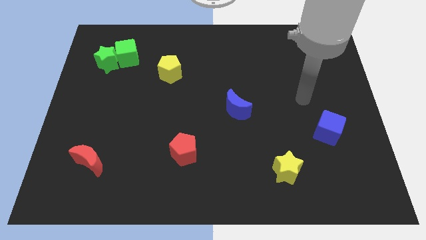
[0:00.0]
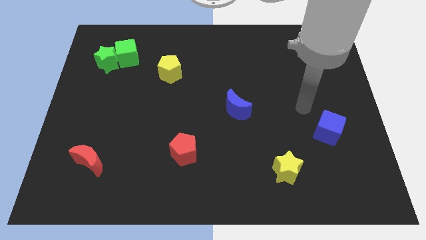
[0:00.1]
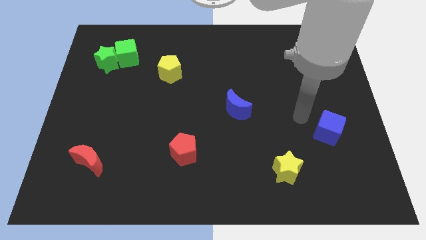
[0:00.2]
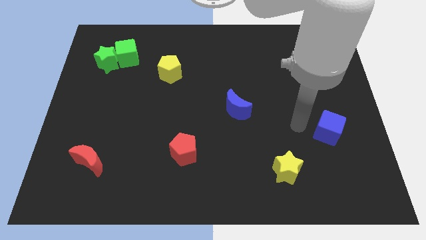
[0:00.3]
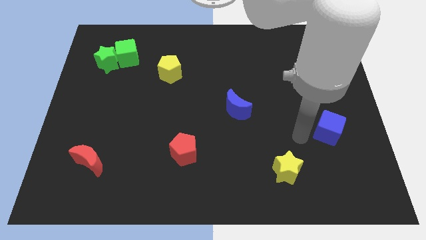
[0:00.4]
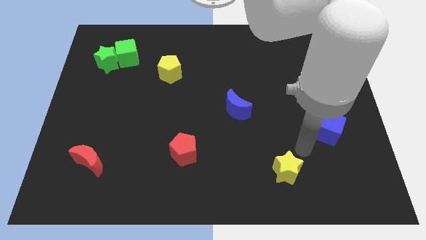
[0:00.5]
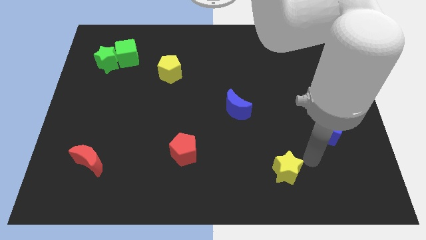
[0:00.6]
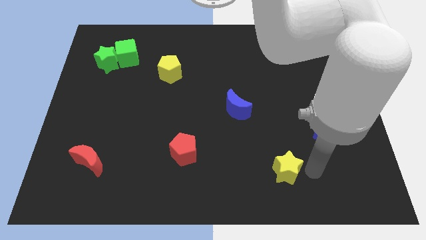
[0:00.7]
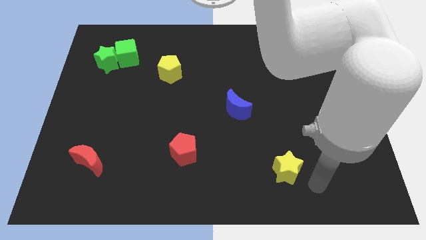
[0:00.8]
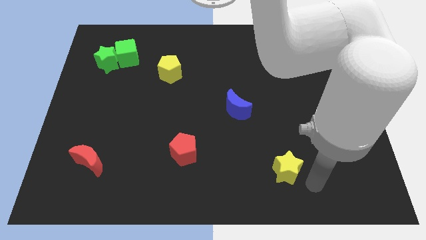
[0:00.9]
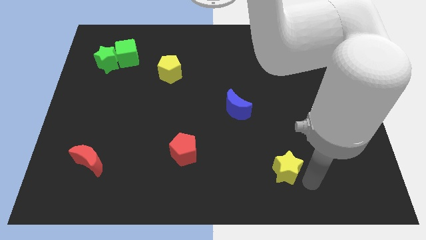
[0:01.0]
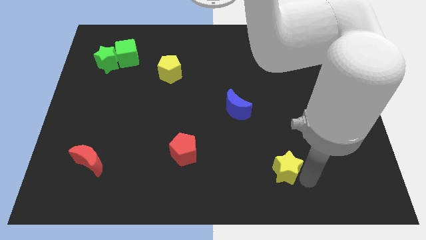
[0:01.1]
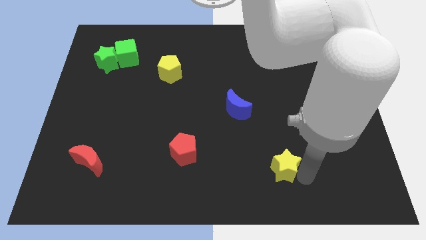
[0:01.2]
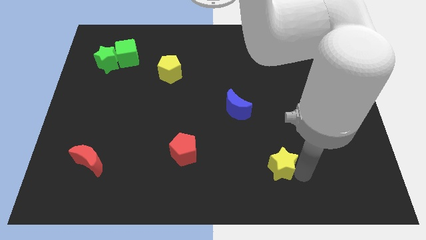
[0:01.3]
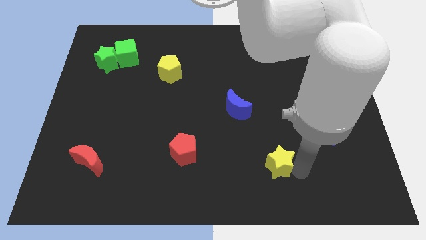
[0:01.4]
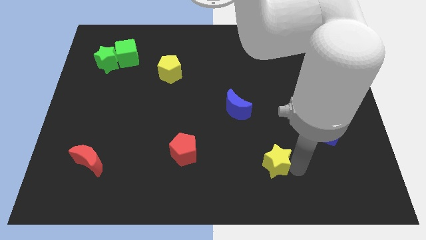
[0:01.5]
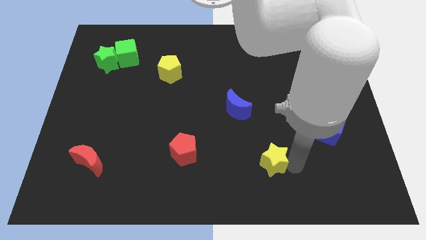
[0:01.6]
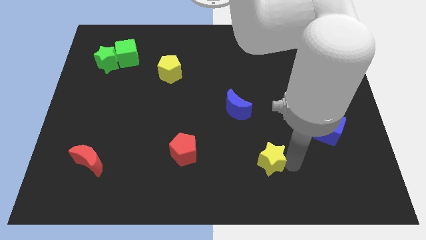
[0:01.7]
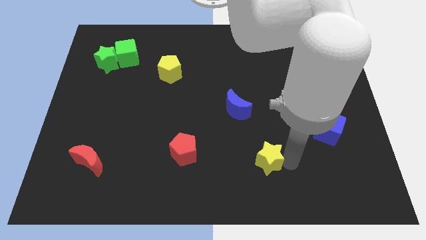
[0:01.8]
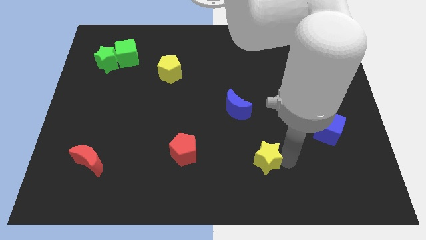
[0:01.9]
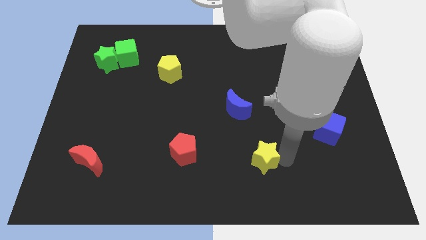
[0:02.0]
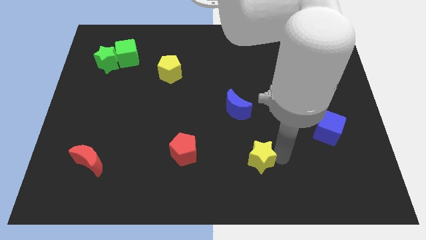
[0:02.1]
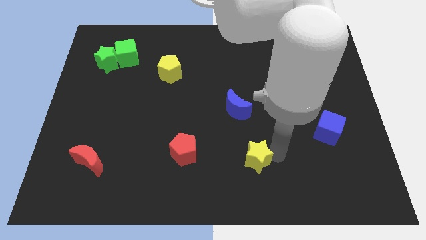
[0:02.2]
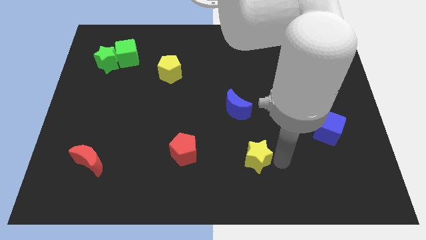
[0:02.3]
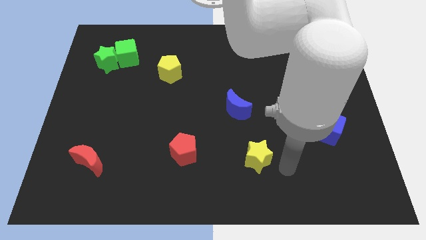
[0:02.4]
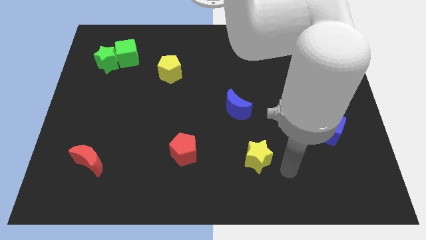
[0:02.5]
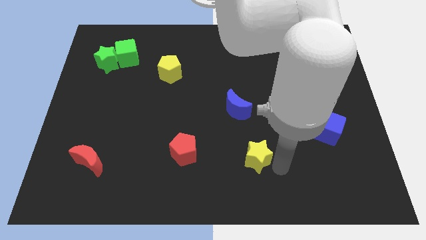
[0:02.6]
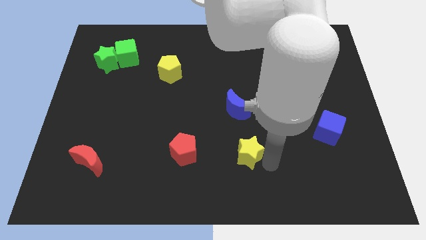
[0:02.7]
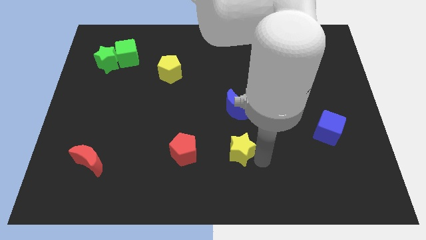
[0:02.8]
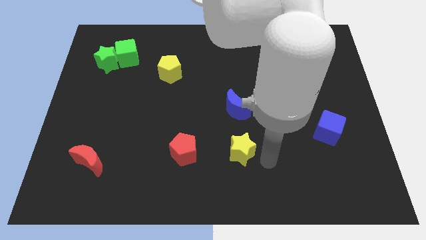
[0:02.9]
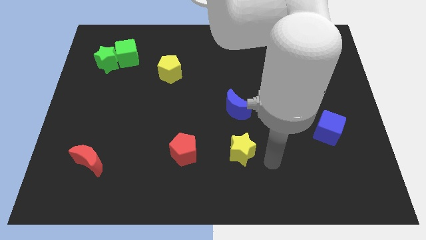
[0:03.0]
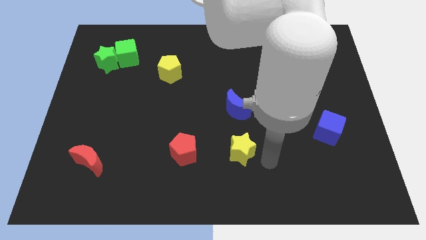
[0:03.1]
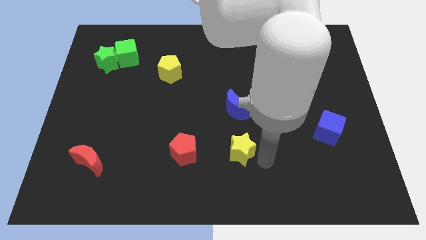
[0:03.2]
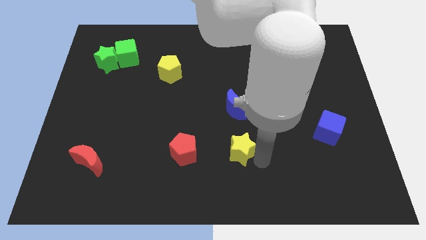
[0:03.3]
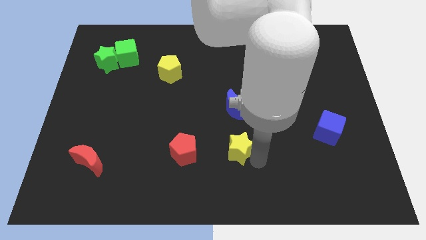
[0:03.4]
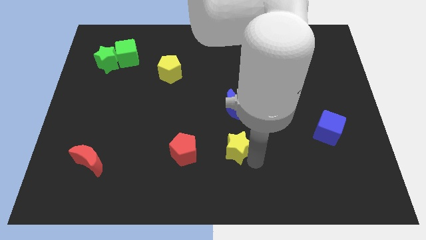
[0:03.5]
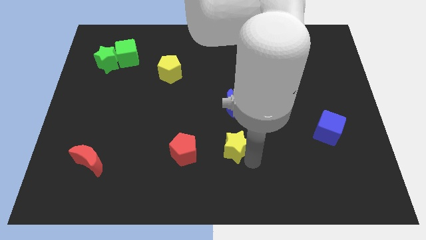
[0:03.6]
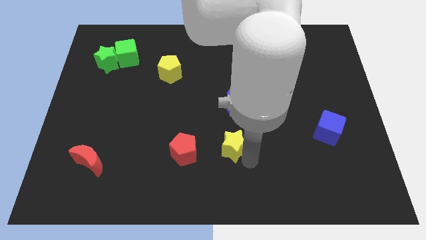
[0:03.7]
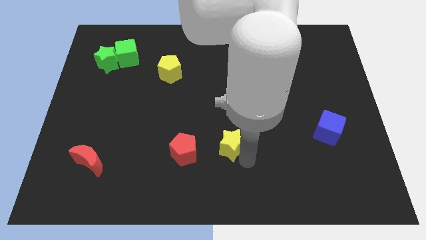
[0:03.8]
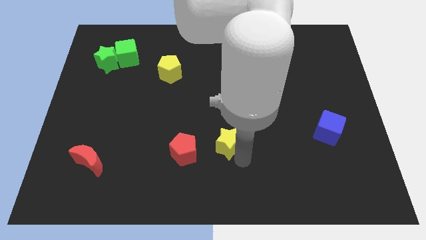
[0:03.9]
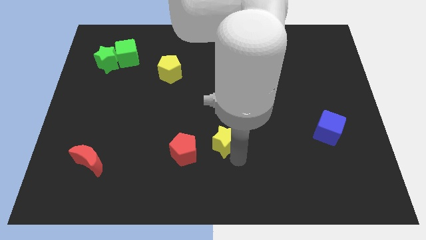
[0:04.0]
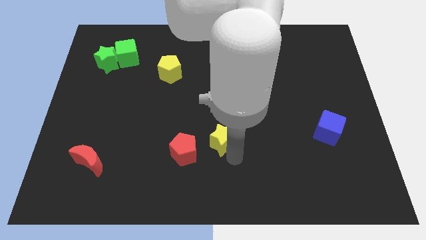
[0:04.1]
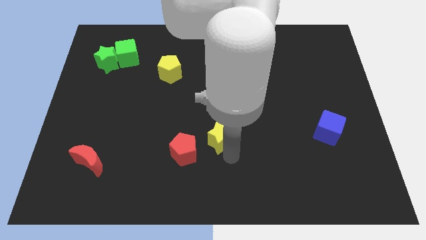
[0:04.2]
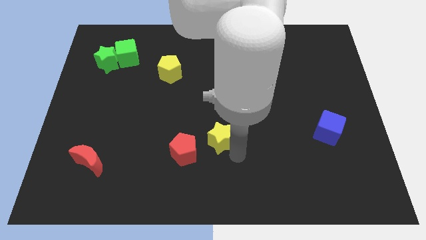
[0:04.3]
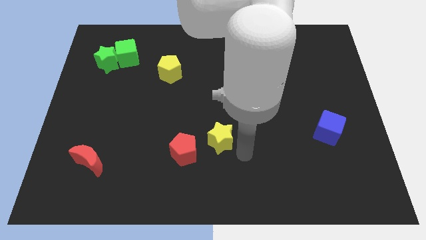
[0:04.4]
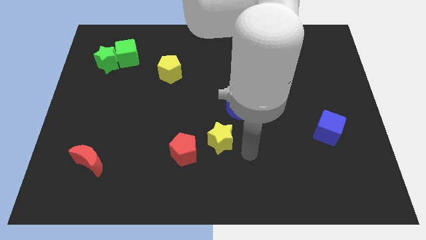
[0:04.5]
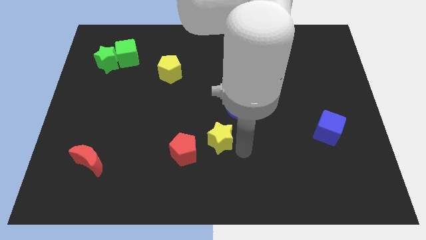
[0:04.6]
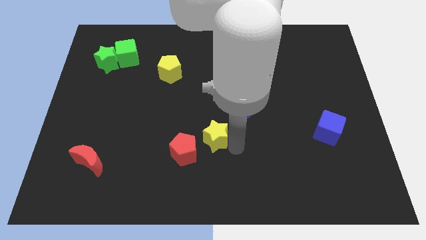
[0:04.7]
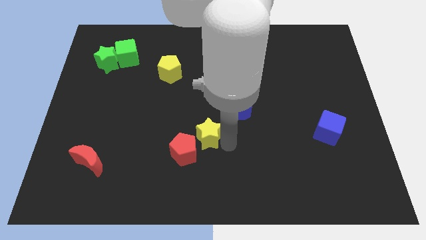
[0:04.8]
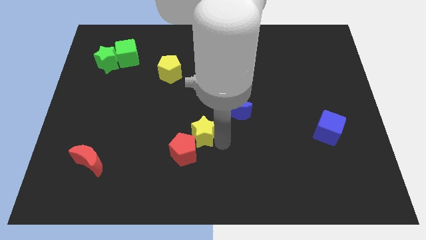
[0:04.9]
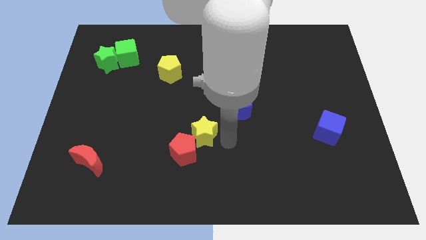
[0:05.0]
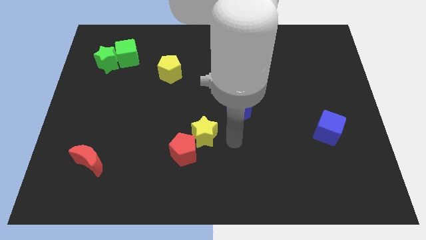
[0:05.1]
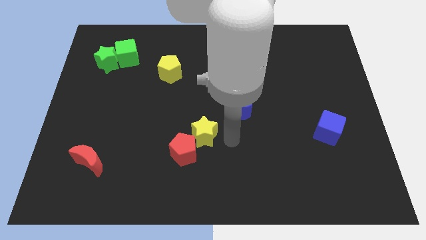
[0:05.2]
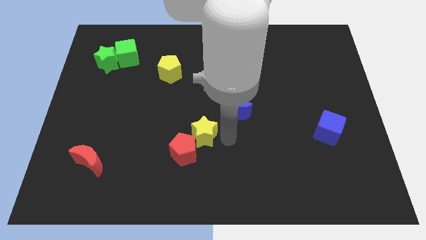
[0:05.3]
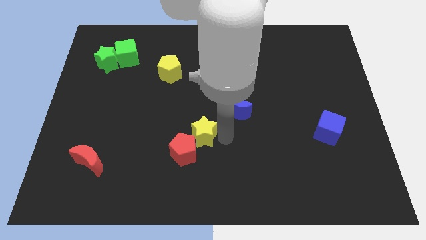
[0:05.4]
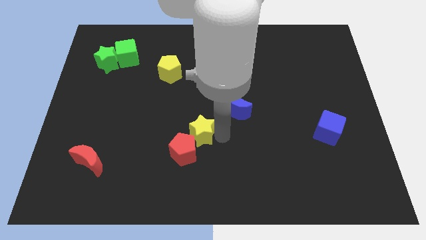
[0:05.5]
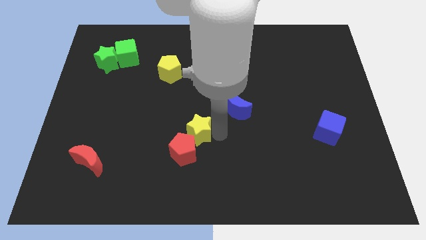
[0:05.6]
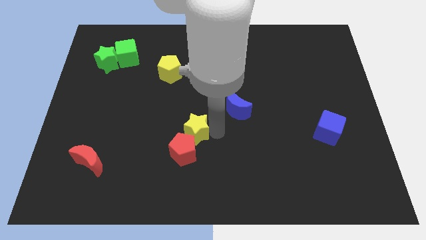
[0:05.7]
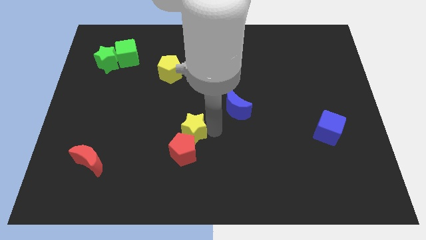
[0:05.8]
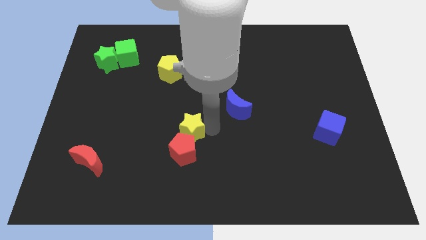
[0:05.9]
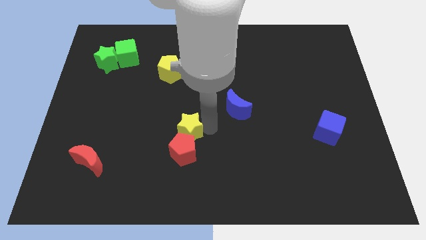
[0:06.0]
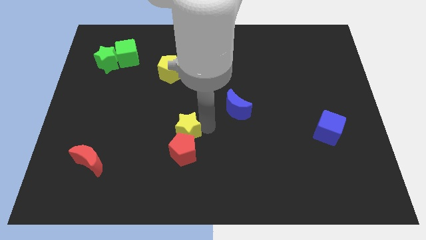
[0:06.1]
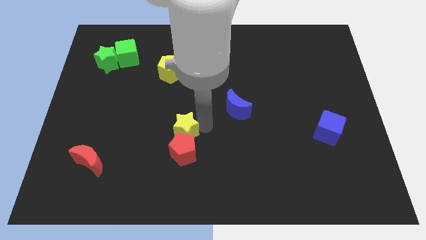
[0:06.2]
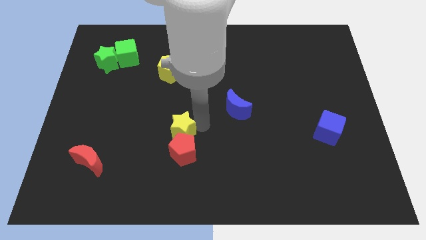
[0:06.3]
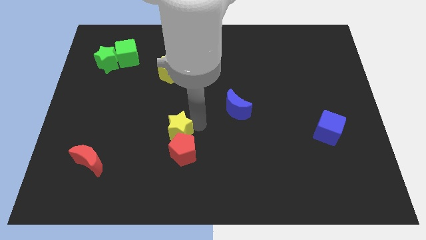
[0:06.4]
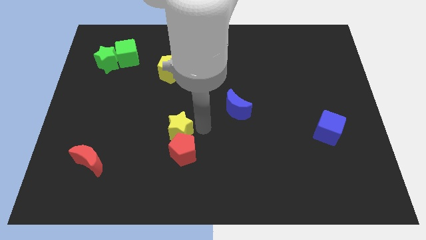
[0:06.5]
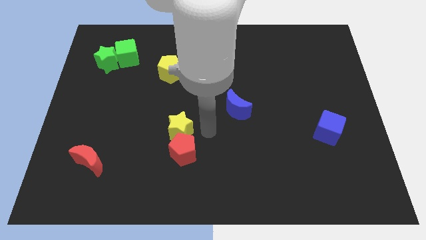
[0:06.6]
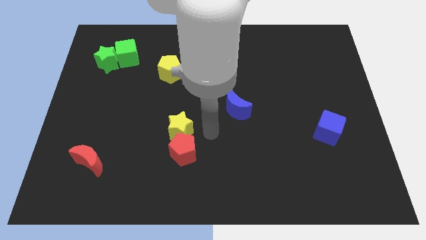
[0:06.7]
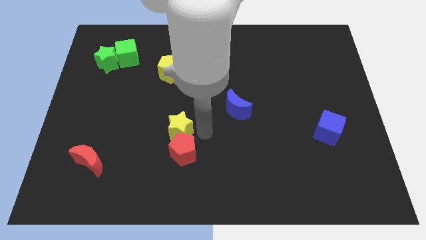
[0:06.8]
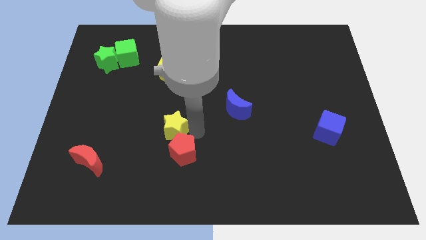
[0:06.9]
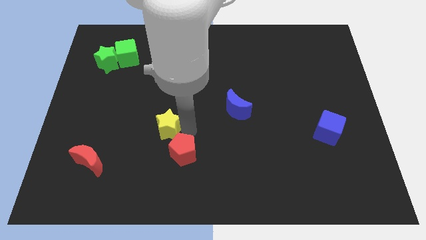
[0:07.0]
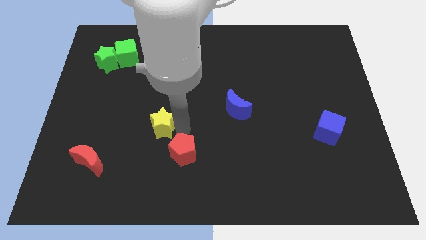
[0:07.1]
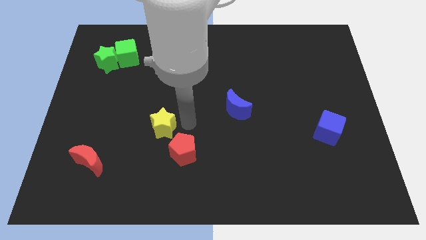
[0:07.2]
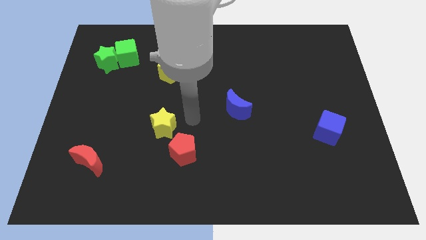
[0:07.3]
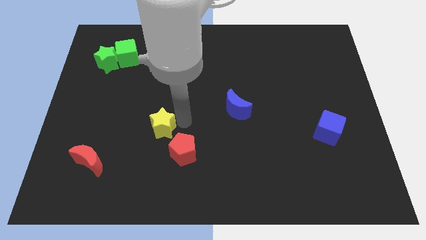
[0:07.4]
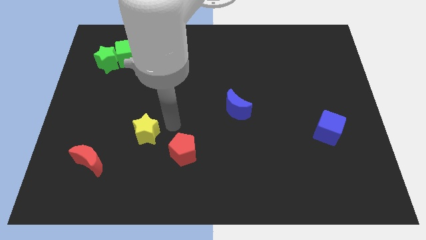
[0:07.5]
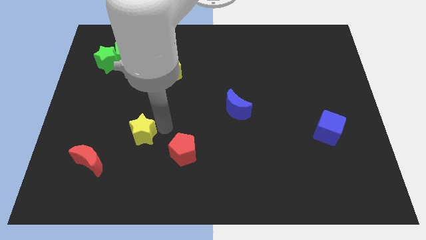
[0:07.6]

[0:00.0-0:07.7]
push the yellow star diagonally up and to the right of the red moon
